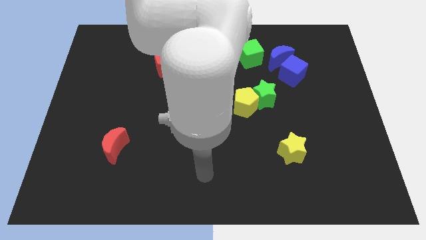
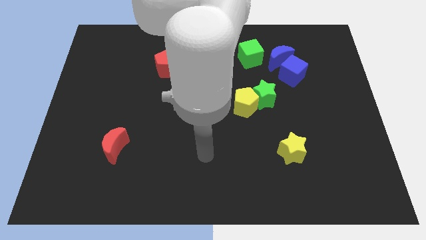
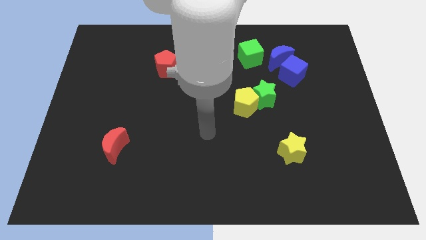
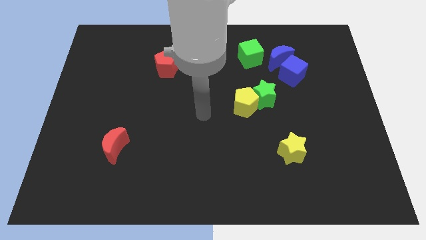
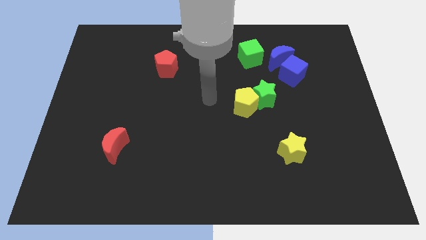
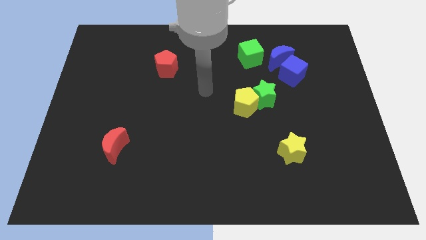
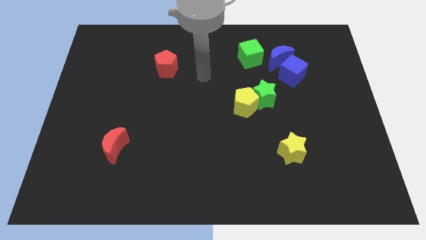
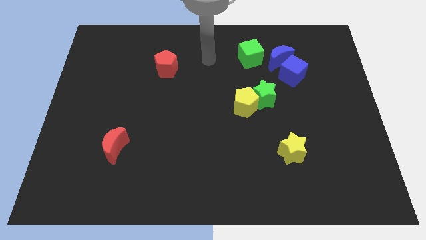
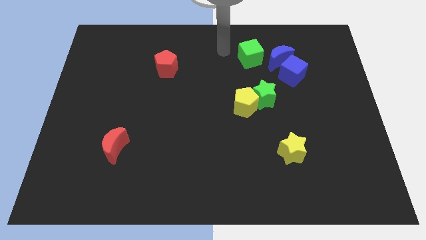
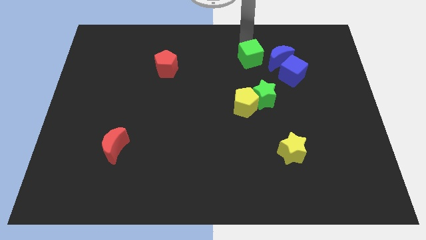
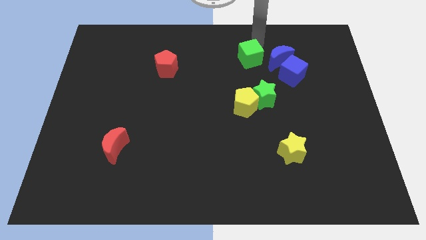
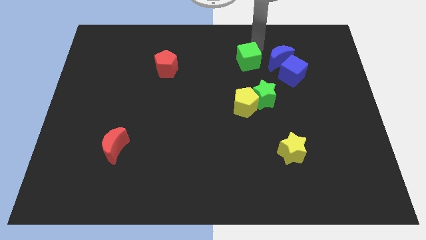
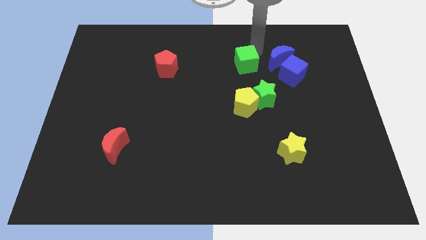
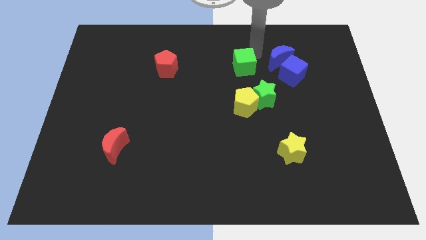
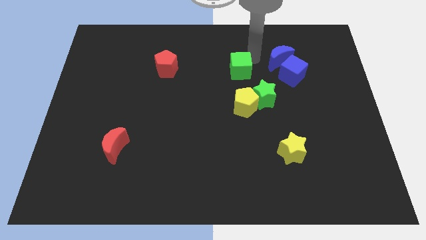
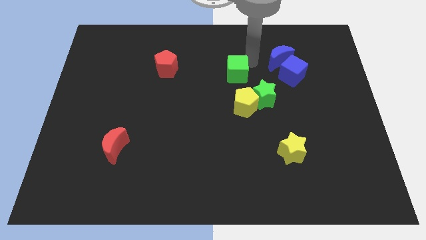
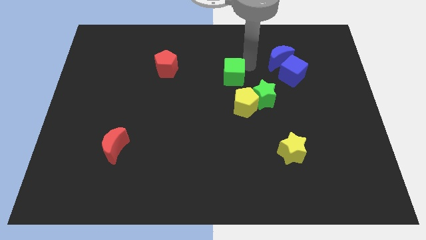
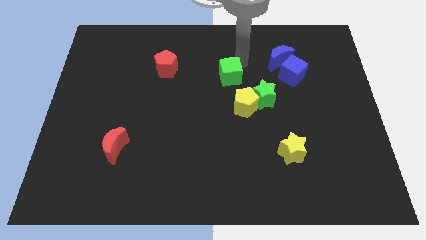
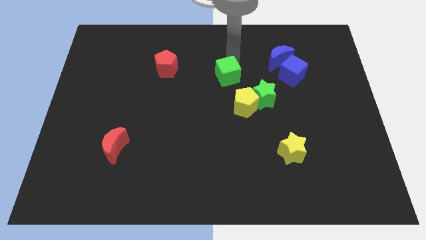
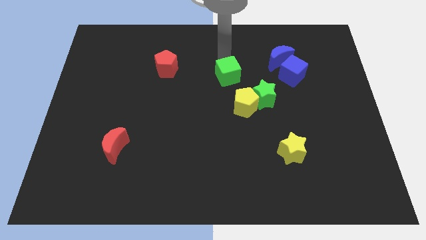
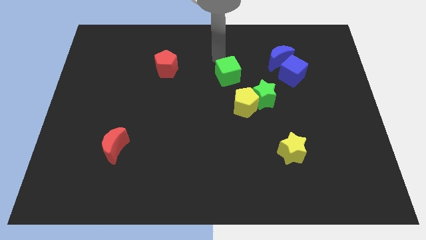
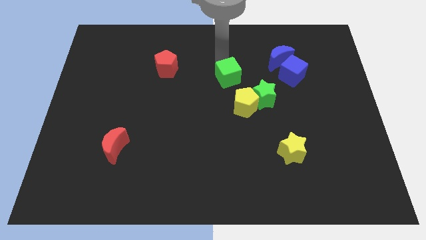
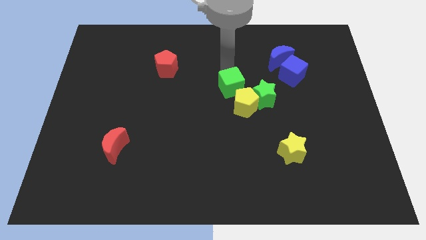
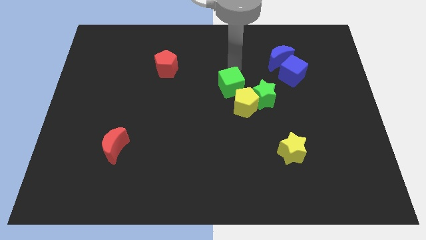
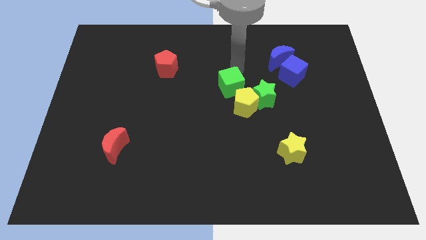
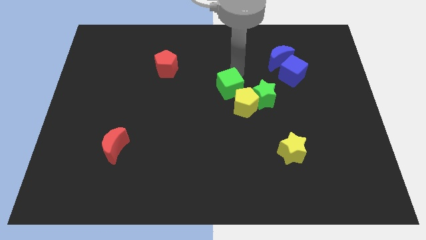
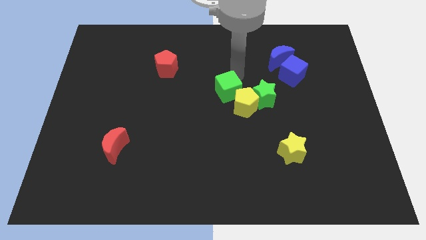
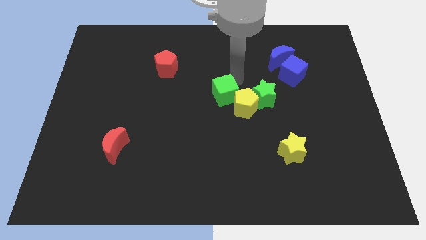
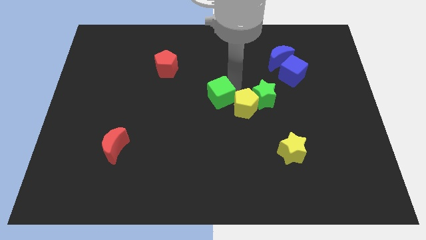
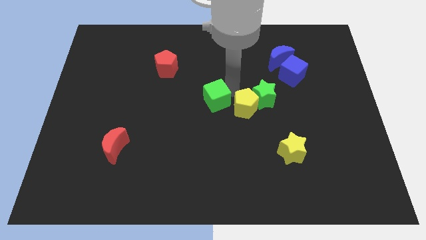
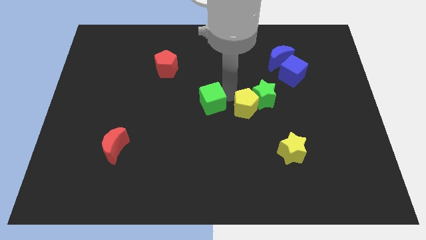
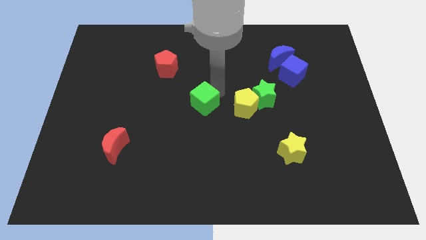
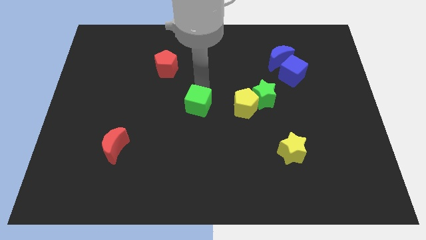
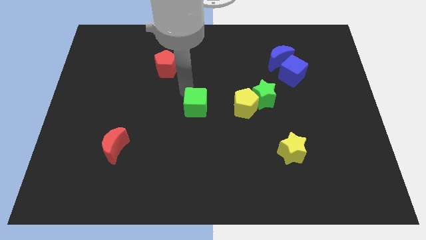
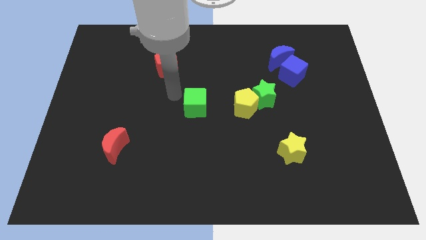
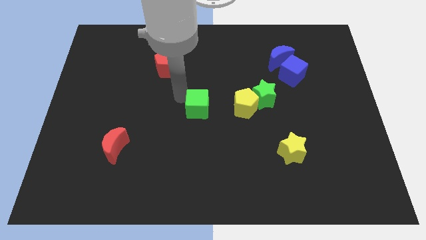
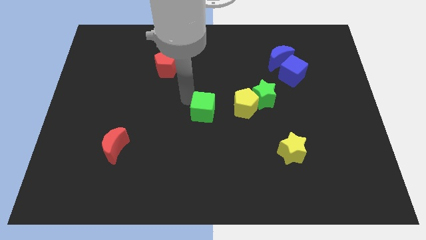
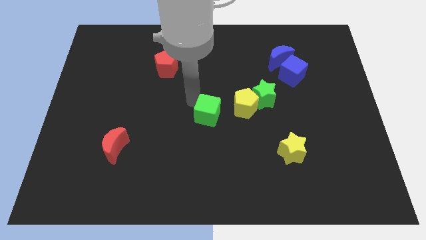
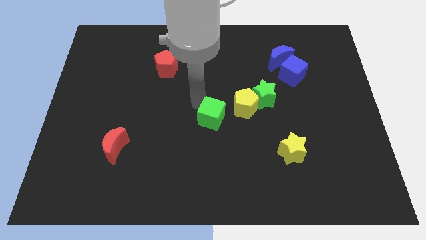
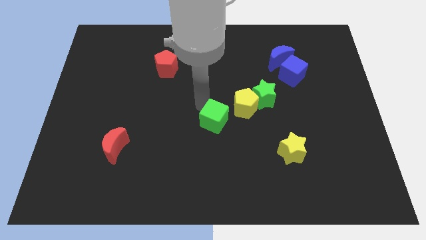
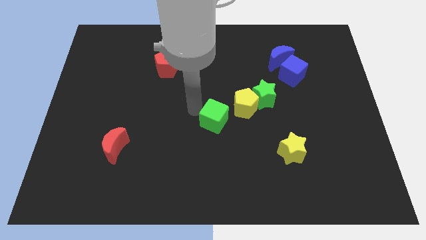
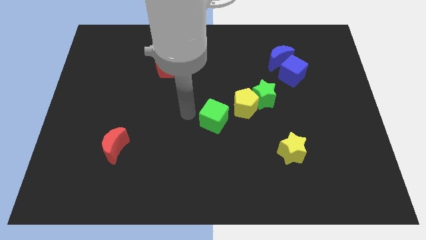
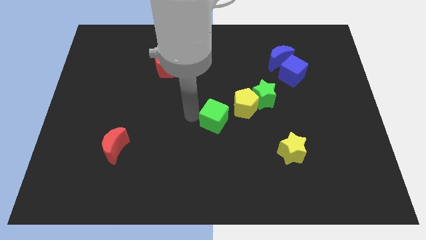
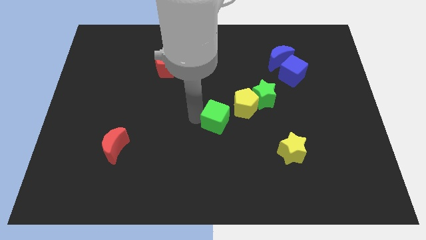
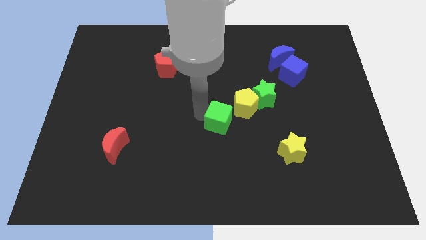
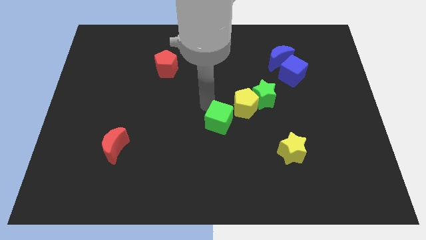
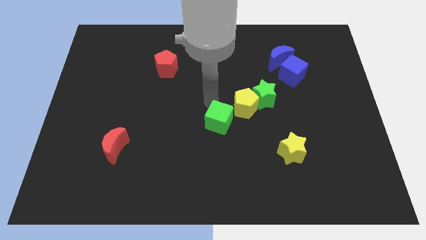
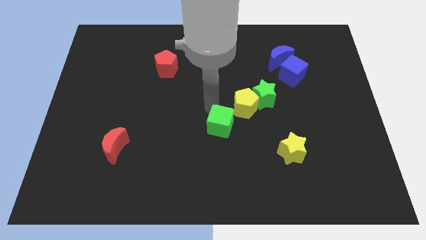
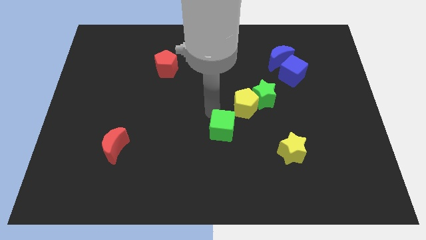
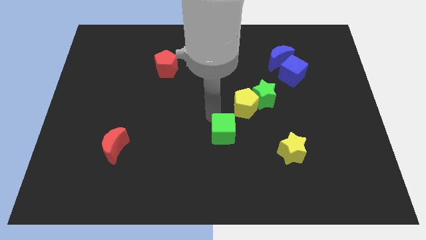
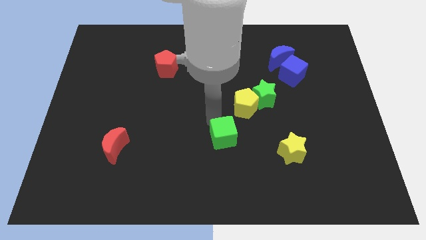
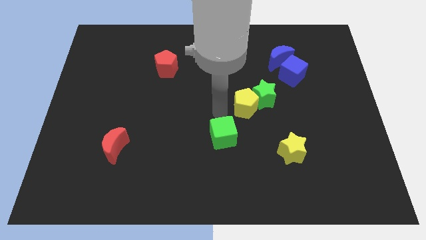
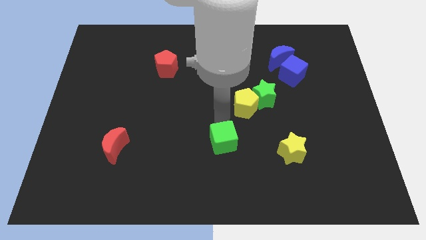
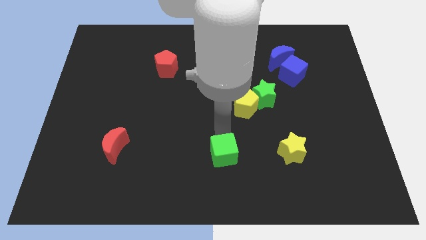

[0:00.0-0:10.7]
move the green cube to the bottom
